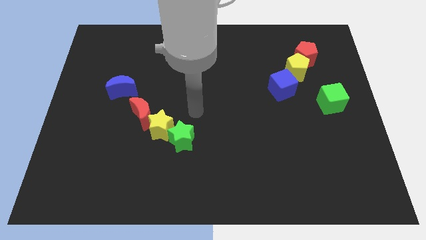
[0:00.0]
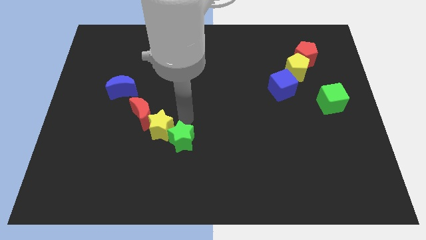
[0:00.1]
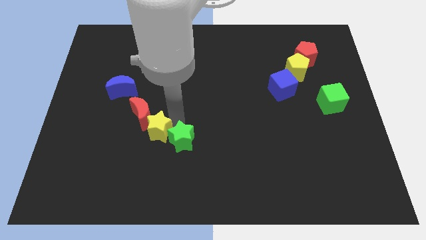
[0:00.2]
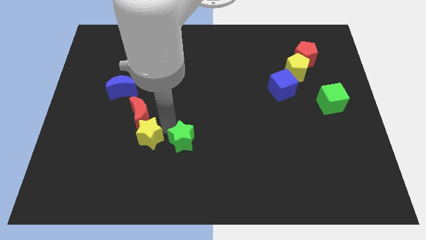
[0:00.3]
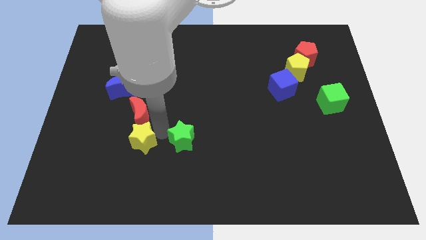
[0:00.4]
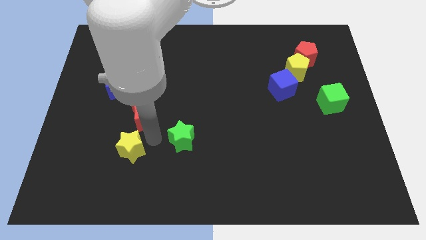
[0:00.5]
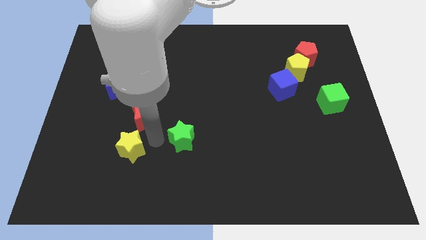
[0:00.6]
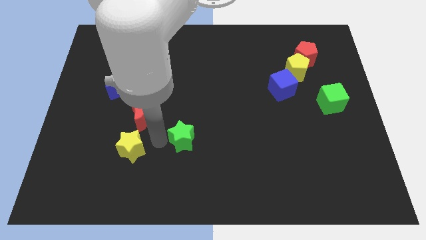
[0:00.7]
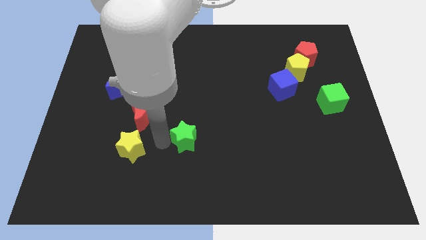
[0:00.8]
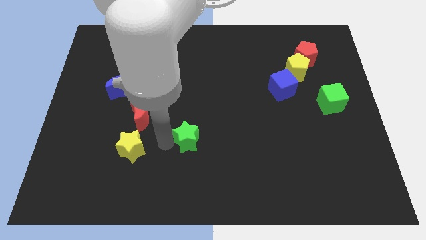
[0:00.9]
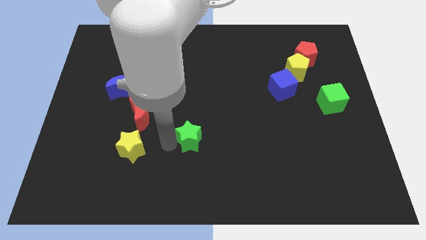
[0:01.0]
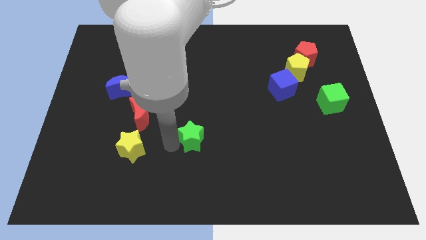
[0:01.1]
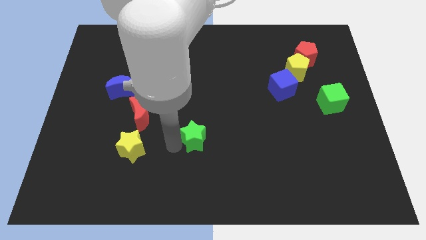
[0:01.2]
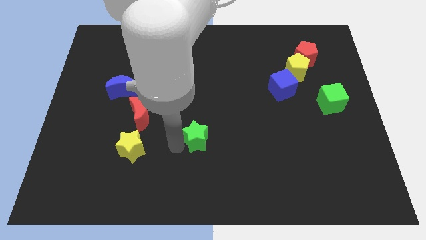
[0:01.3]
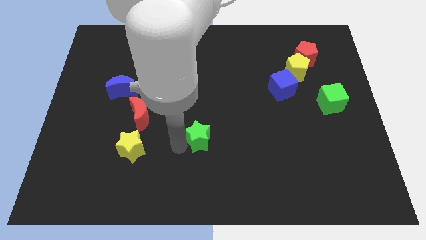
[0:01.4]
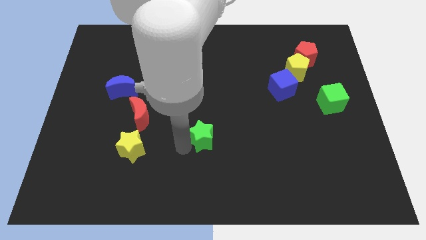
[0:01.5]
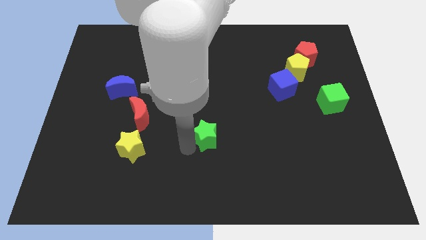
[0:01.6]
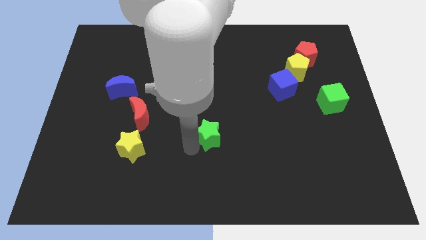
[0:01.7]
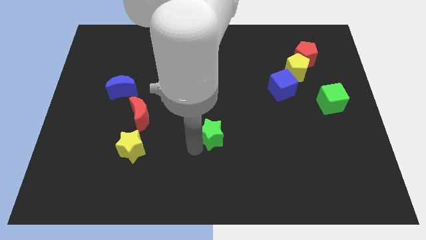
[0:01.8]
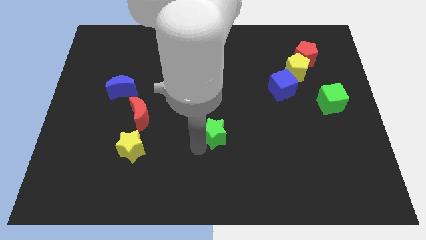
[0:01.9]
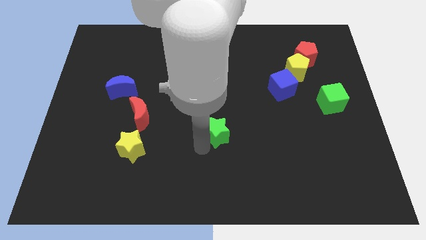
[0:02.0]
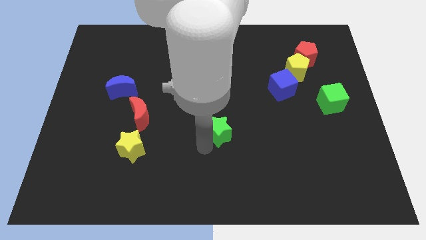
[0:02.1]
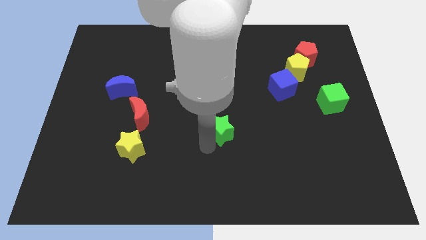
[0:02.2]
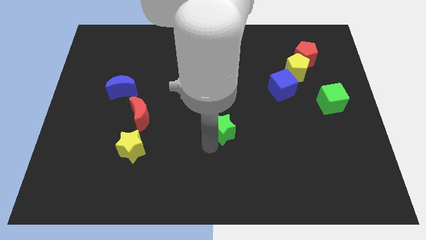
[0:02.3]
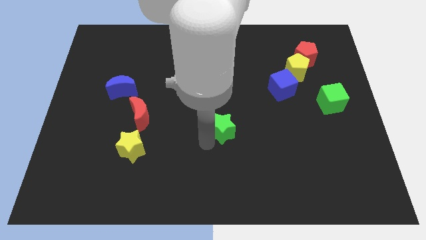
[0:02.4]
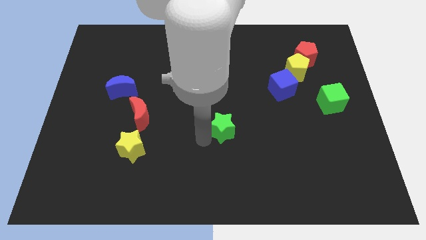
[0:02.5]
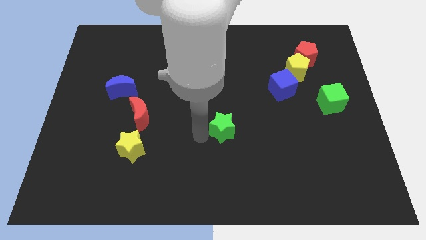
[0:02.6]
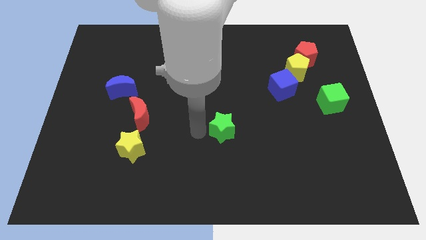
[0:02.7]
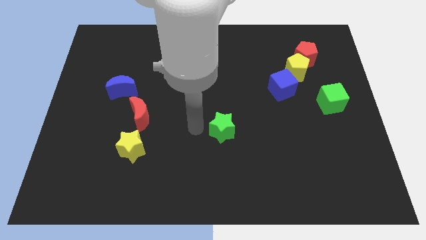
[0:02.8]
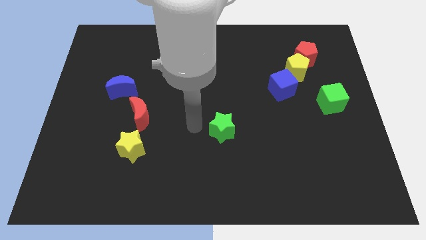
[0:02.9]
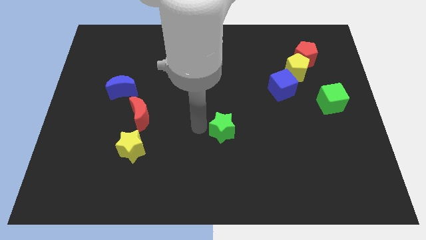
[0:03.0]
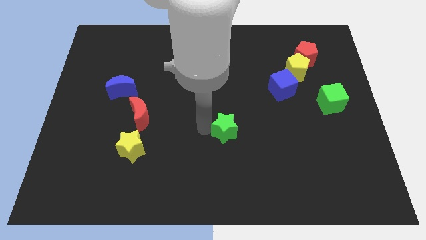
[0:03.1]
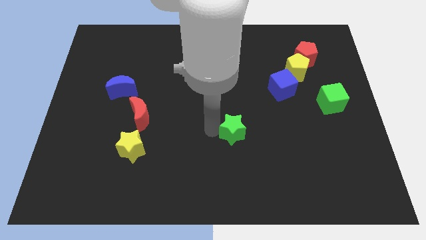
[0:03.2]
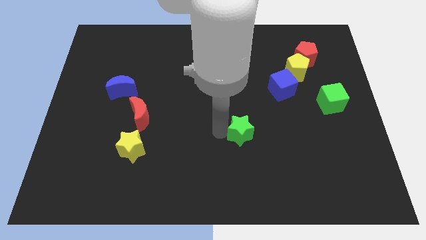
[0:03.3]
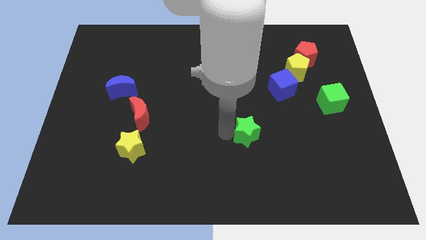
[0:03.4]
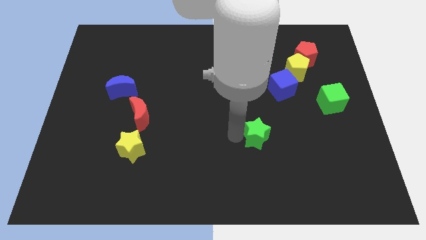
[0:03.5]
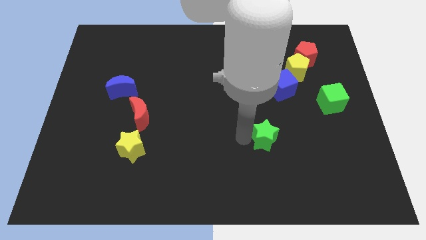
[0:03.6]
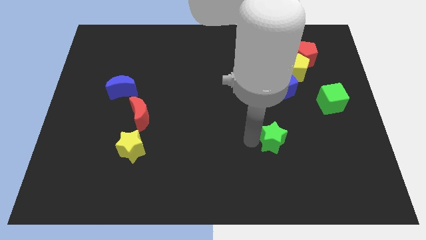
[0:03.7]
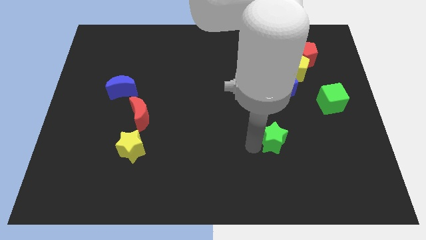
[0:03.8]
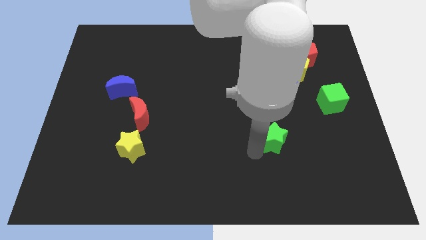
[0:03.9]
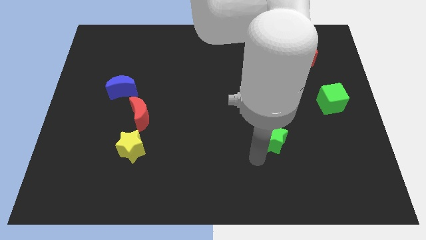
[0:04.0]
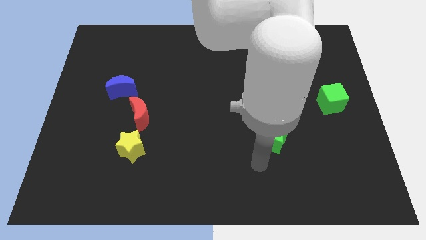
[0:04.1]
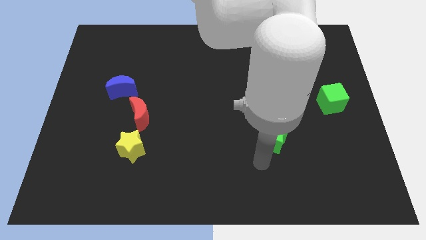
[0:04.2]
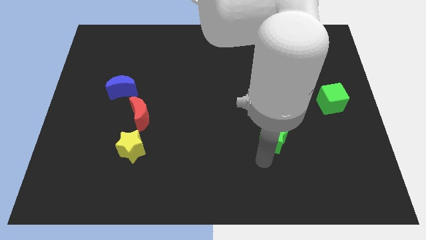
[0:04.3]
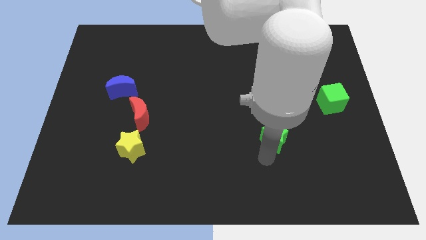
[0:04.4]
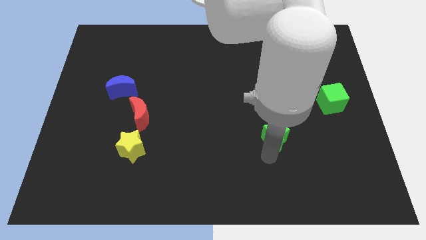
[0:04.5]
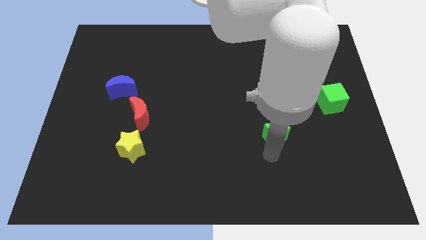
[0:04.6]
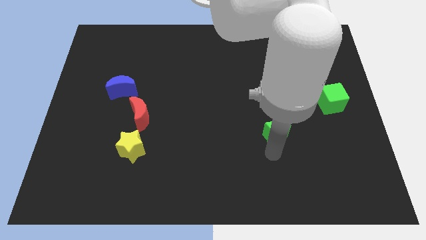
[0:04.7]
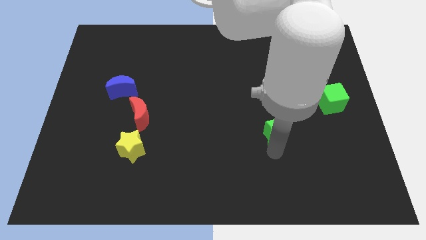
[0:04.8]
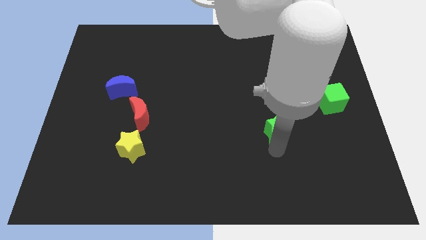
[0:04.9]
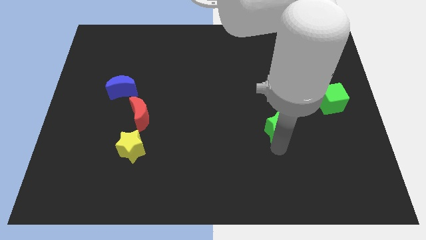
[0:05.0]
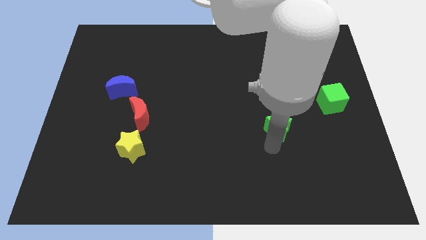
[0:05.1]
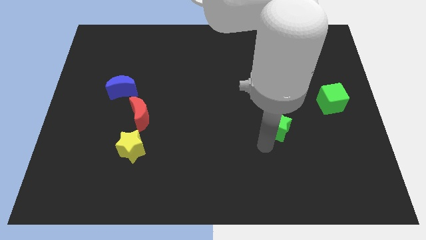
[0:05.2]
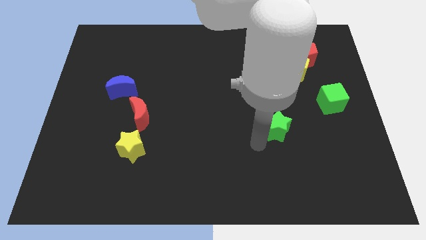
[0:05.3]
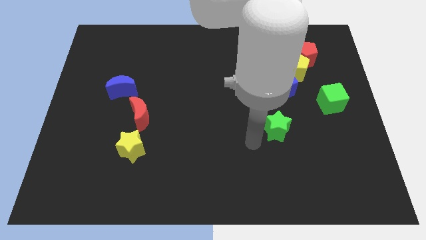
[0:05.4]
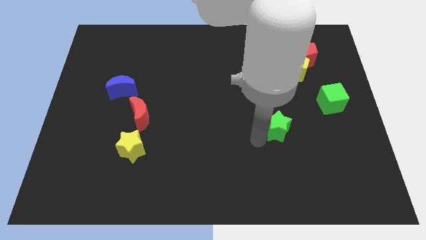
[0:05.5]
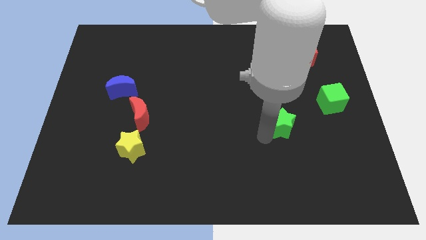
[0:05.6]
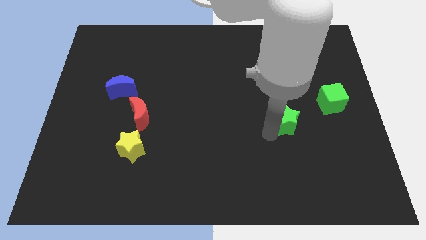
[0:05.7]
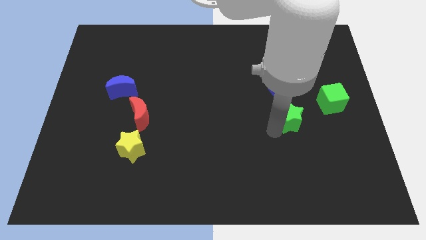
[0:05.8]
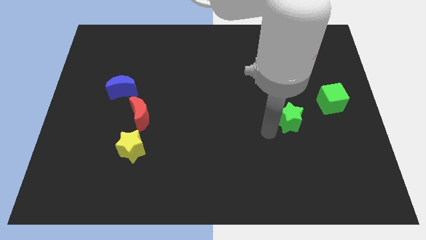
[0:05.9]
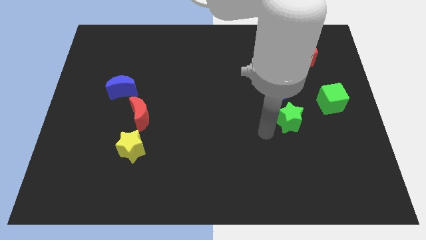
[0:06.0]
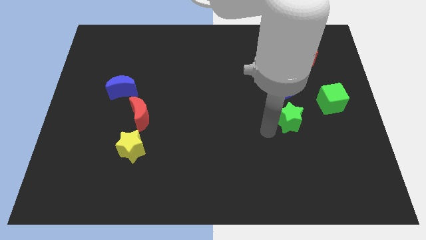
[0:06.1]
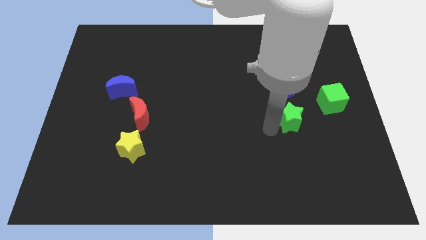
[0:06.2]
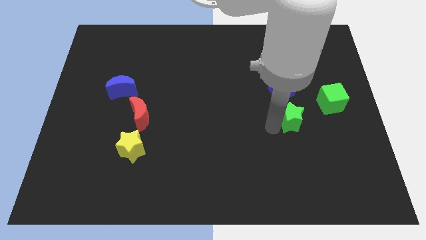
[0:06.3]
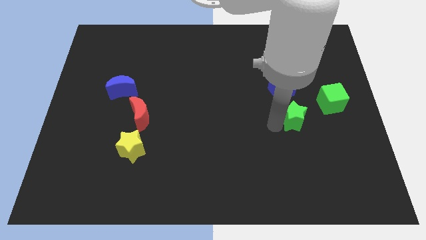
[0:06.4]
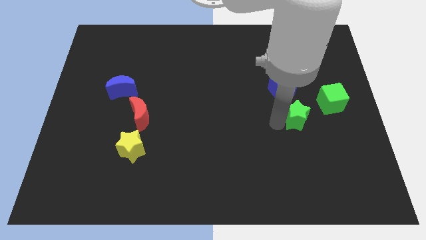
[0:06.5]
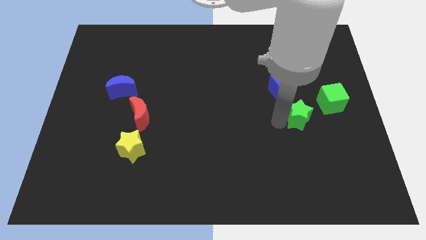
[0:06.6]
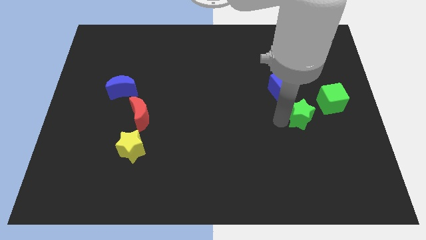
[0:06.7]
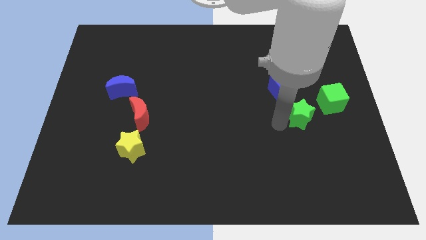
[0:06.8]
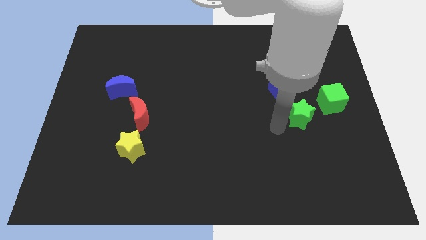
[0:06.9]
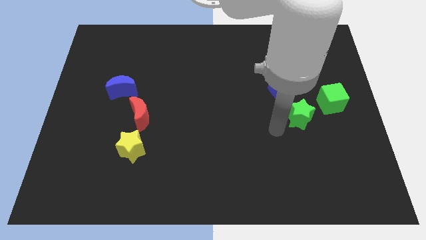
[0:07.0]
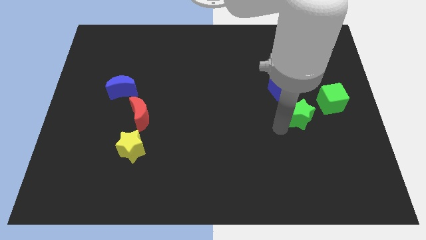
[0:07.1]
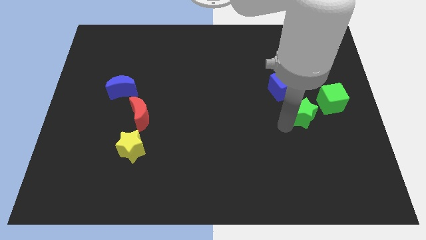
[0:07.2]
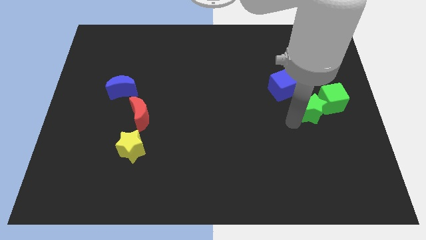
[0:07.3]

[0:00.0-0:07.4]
slide the green star next to the green cube

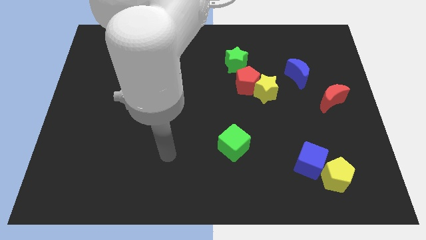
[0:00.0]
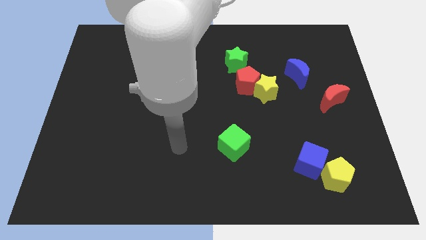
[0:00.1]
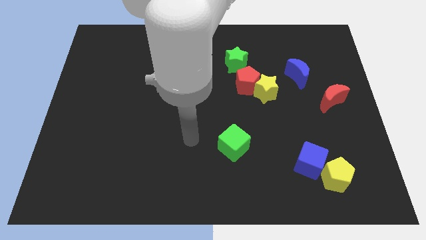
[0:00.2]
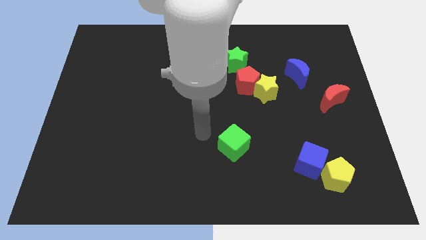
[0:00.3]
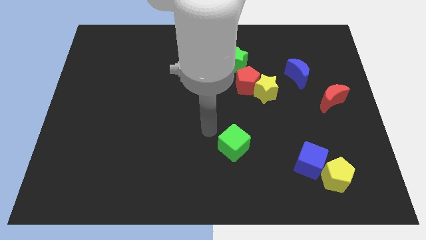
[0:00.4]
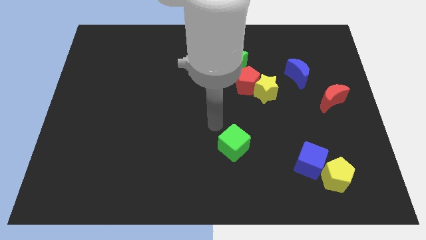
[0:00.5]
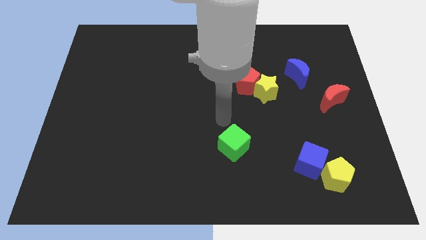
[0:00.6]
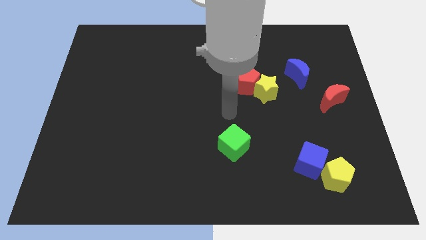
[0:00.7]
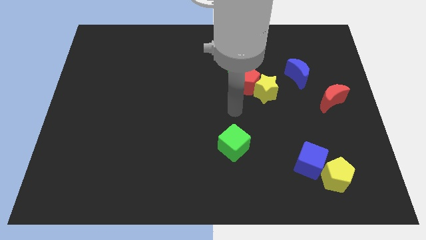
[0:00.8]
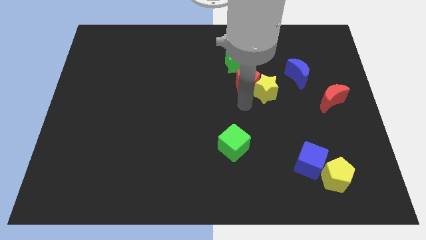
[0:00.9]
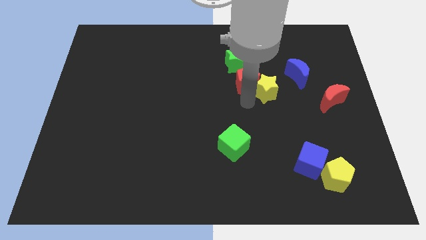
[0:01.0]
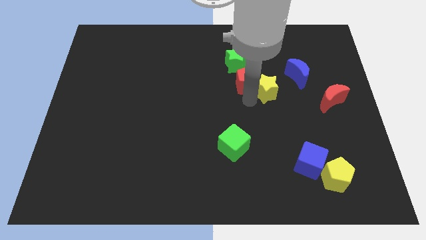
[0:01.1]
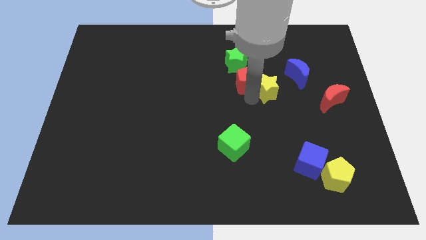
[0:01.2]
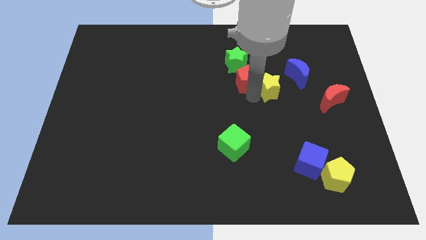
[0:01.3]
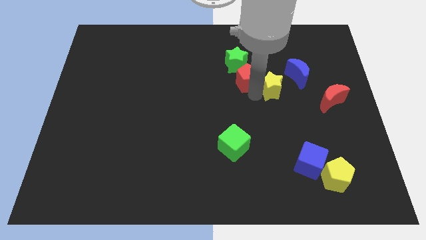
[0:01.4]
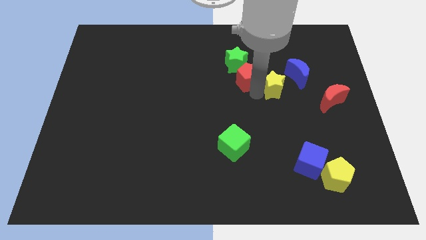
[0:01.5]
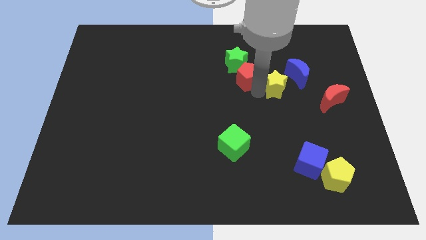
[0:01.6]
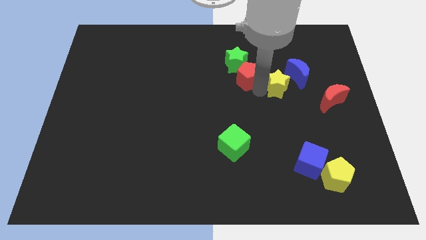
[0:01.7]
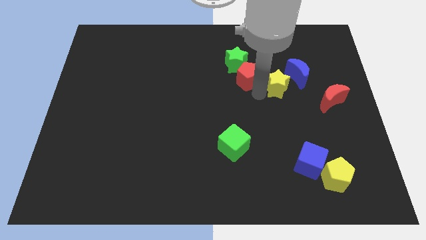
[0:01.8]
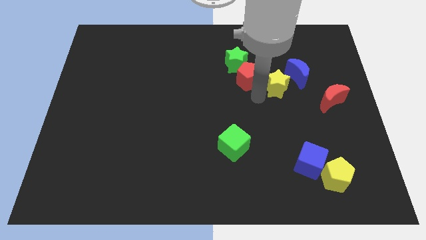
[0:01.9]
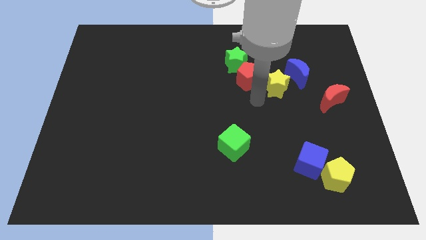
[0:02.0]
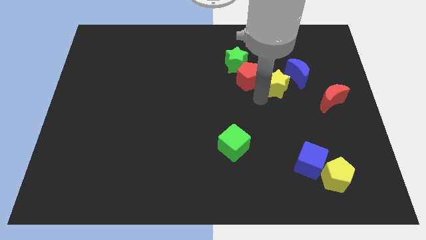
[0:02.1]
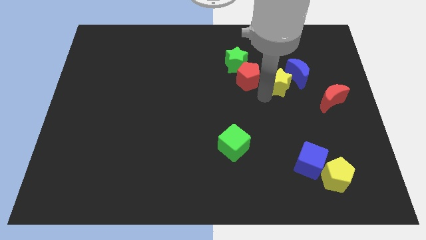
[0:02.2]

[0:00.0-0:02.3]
move the yellow star close to the blue moon
